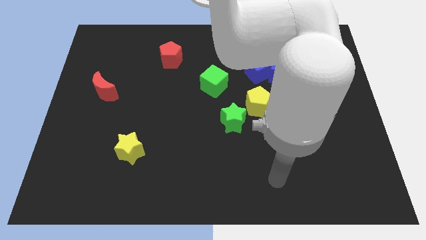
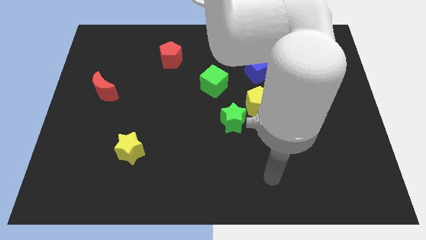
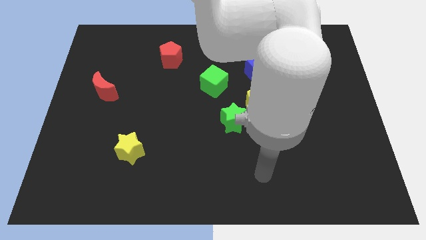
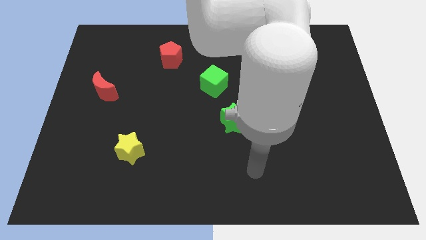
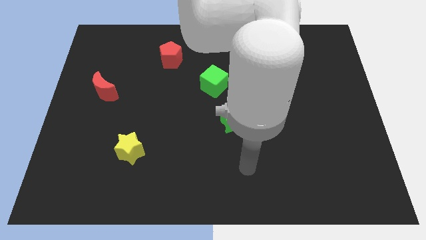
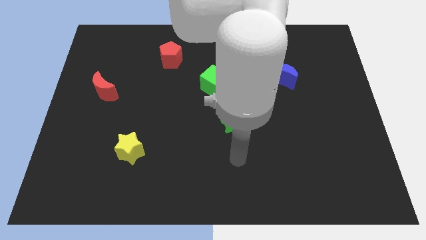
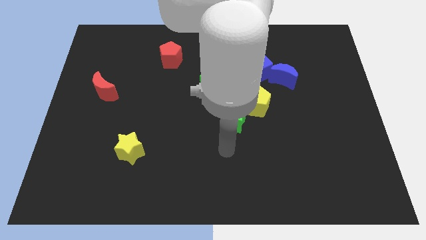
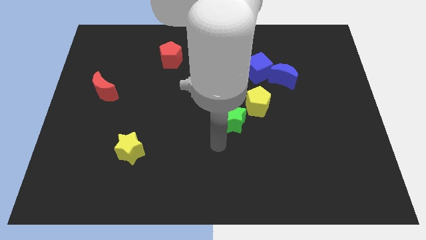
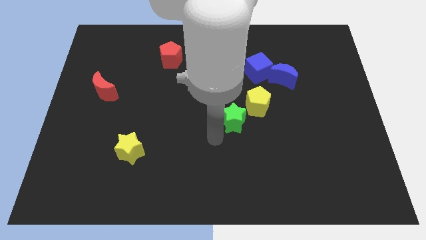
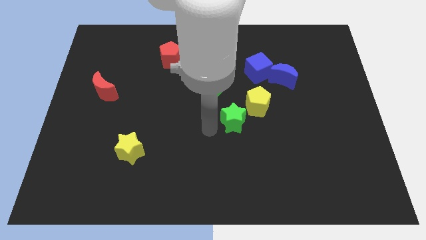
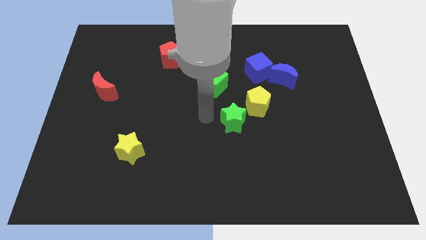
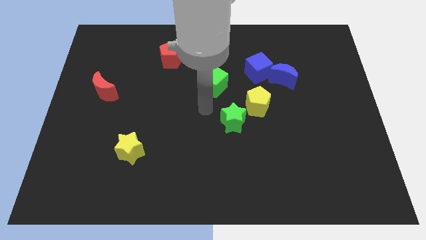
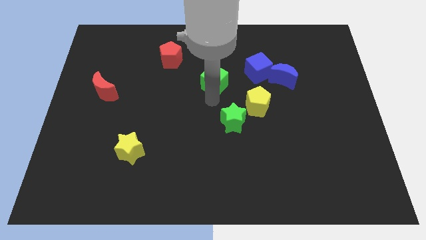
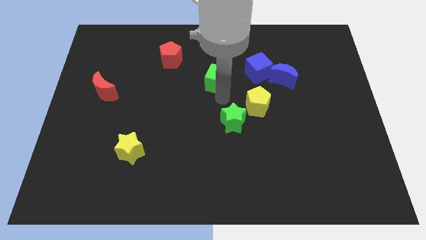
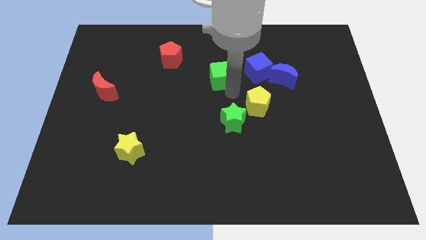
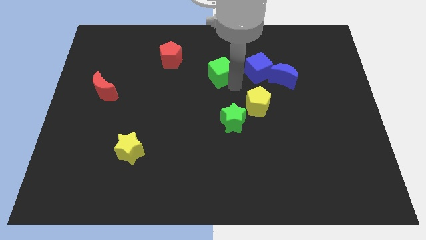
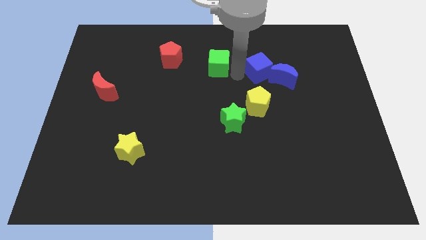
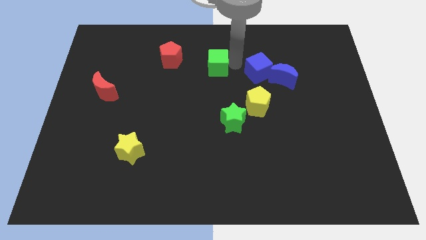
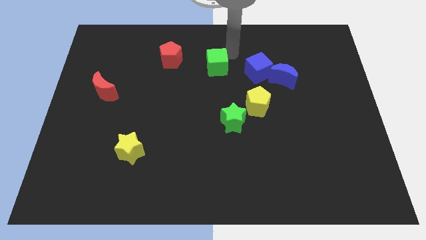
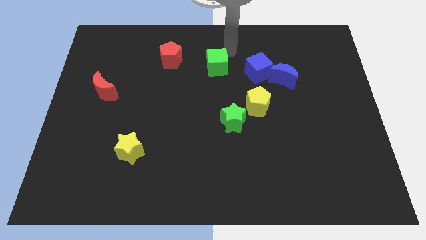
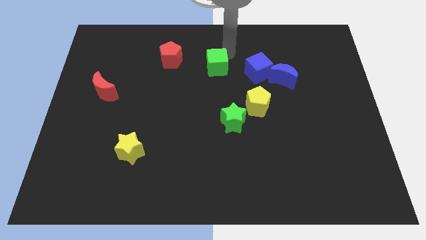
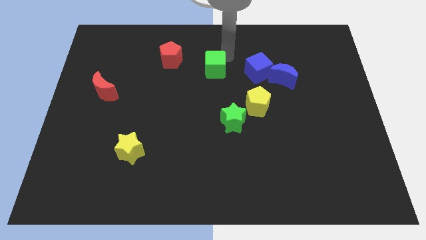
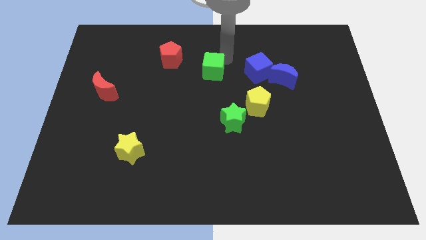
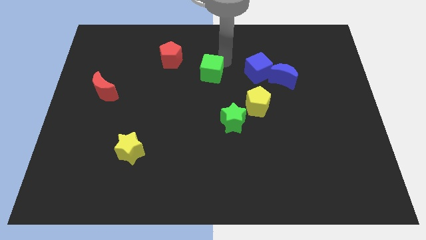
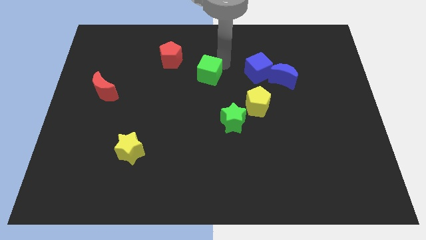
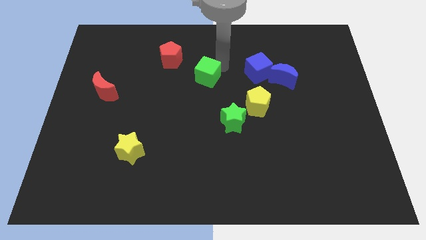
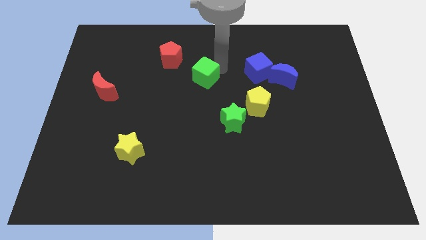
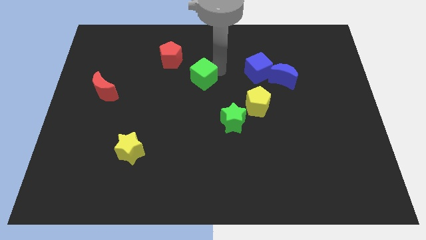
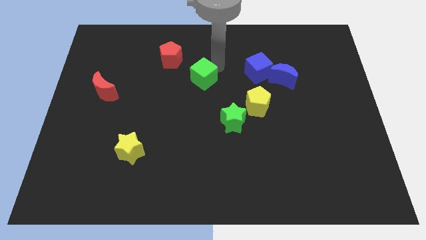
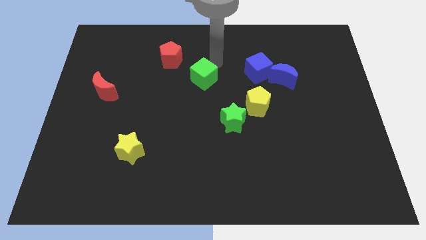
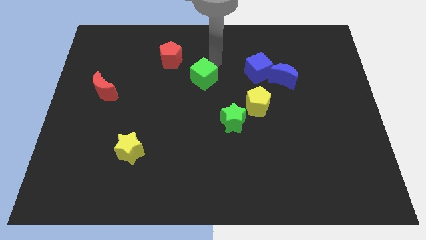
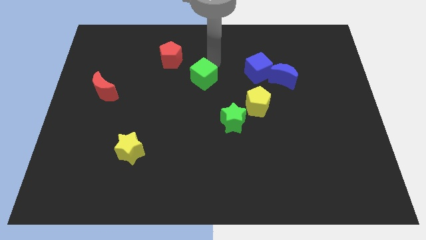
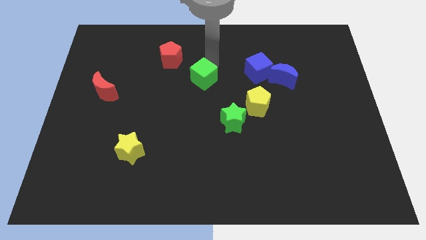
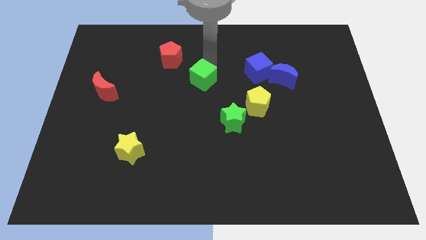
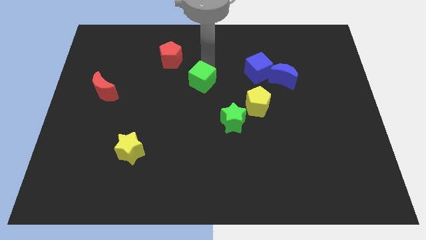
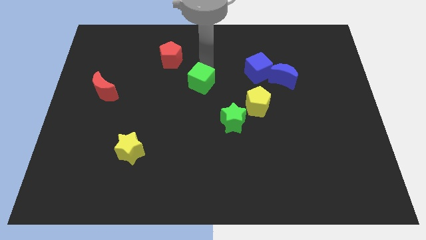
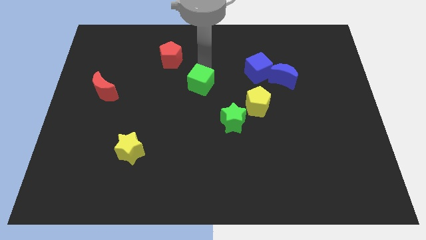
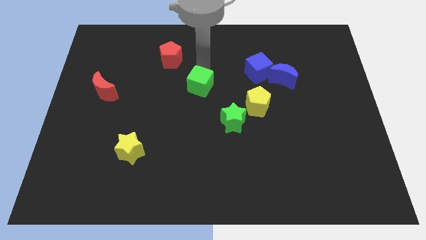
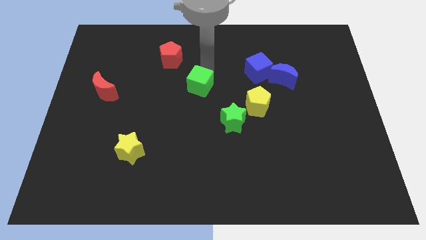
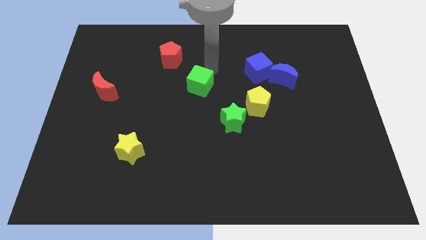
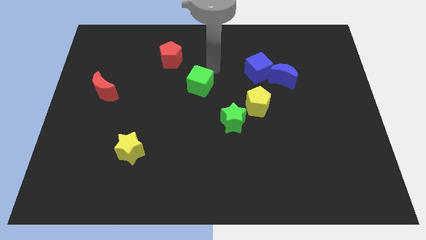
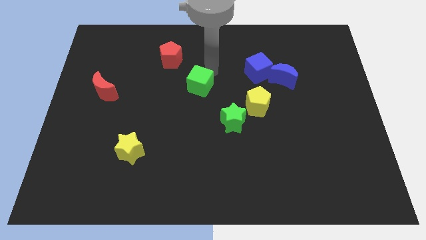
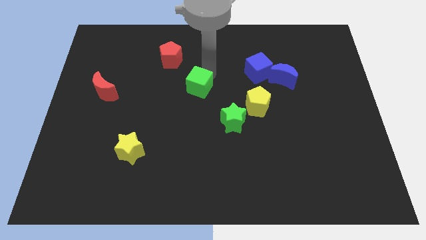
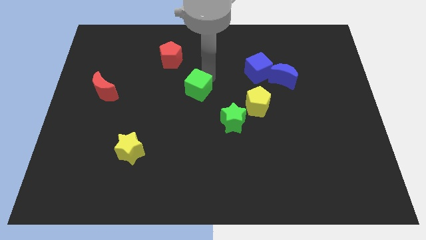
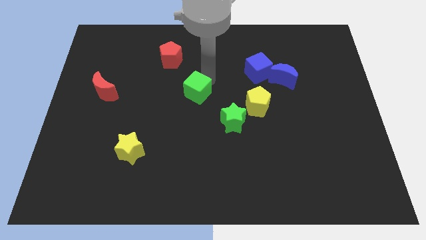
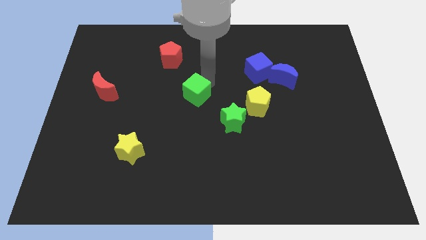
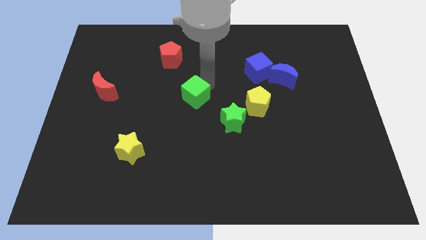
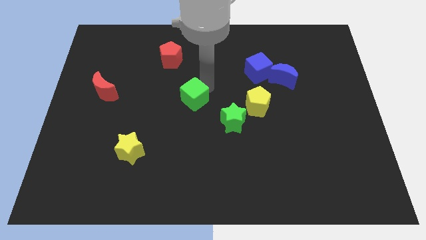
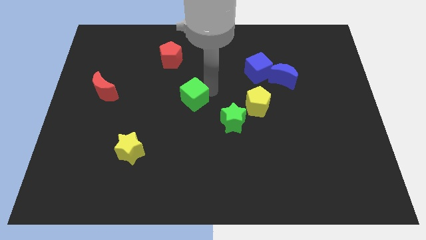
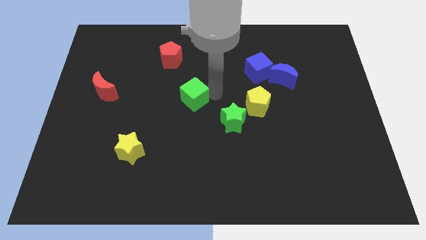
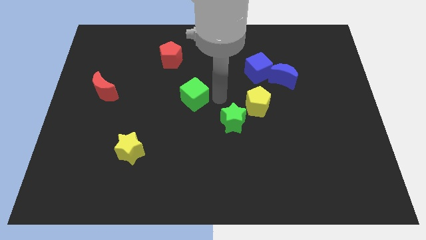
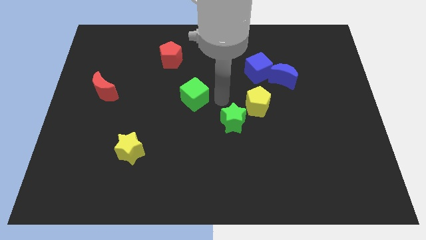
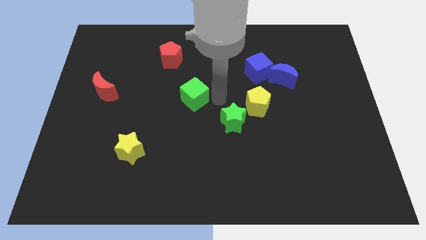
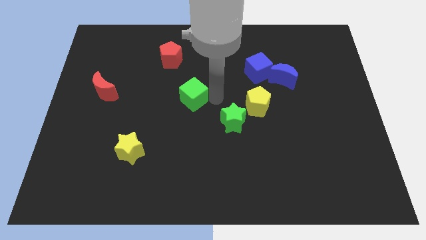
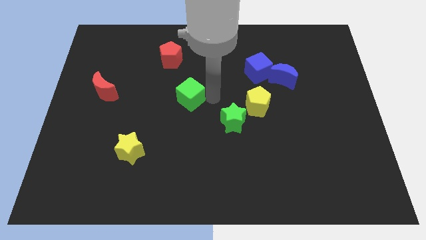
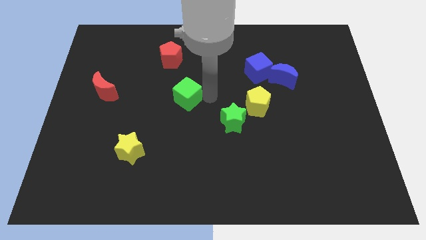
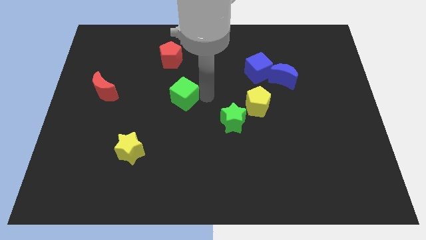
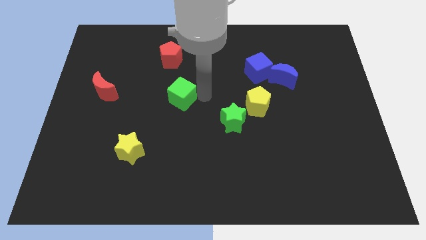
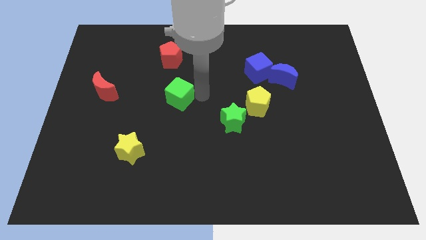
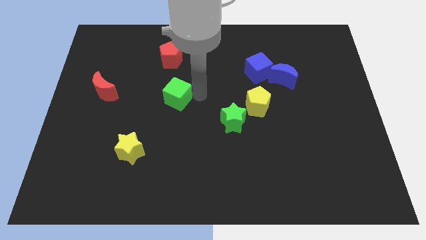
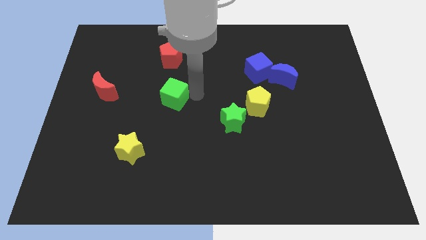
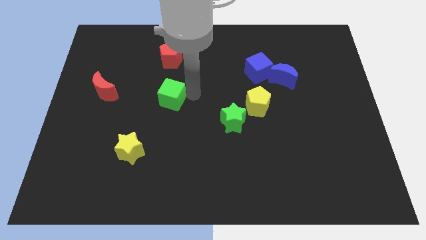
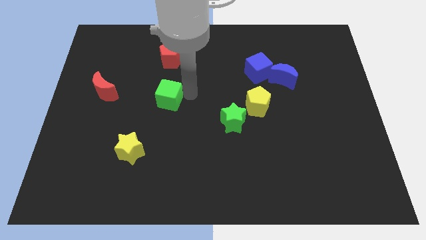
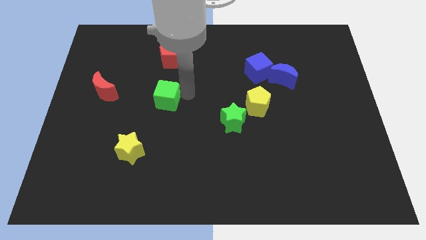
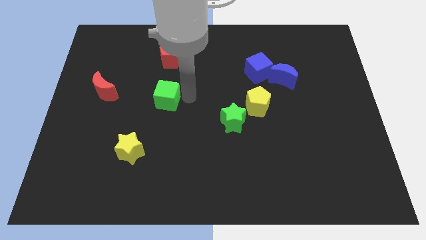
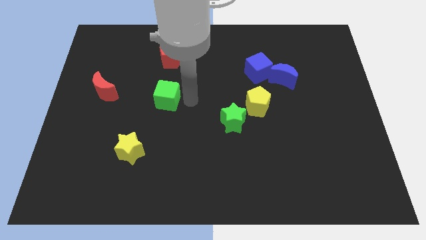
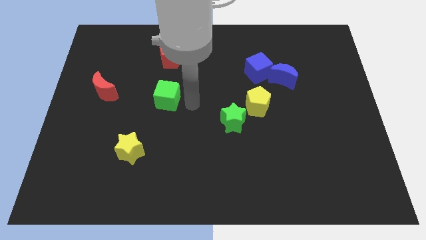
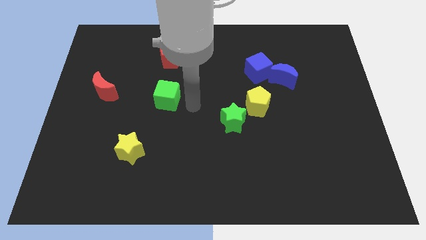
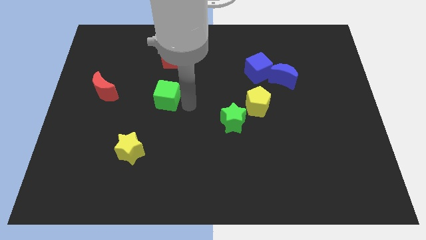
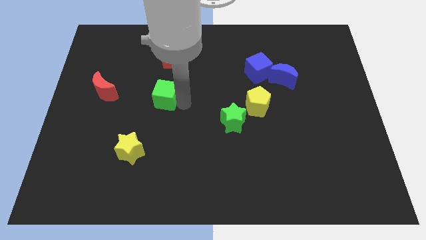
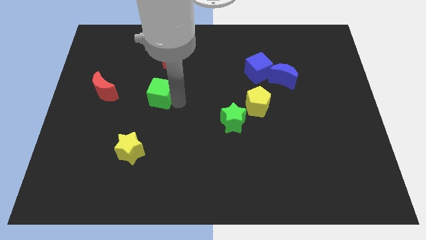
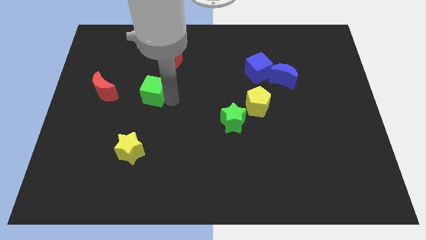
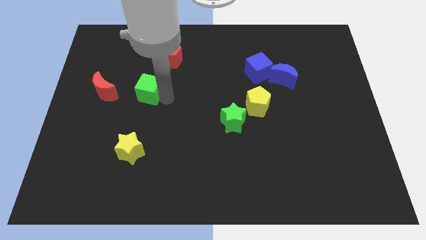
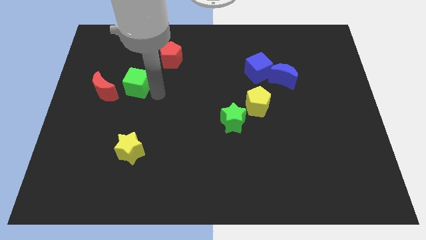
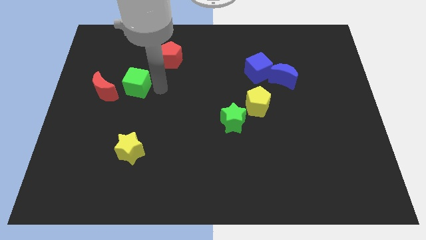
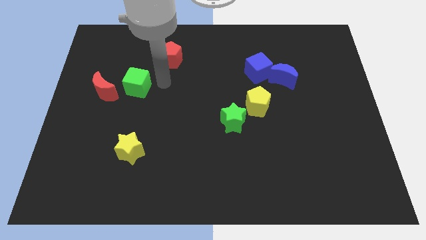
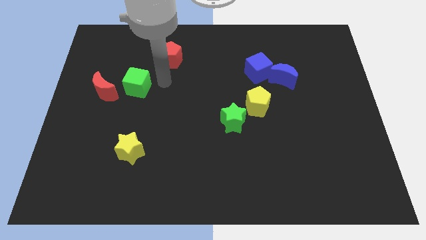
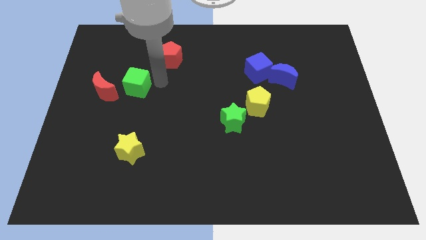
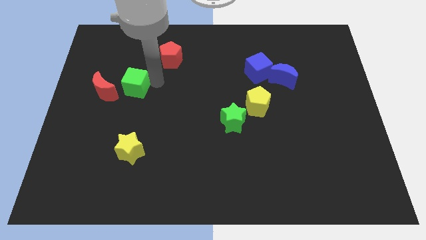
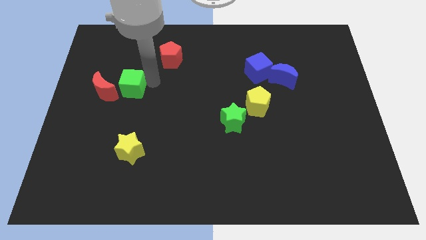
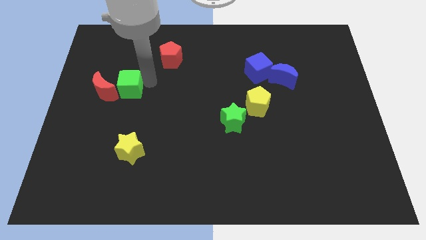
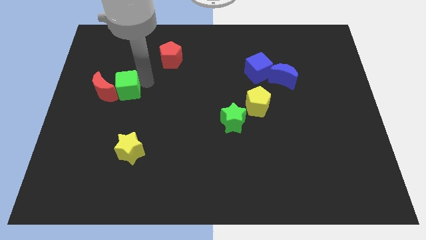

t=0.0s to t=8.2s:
move the green cube to the red moon
